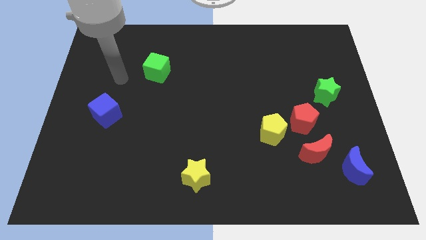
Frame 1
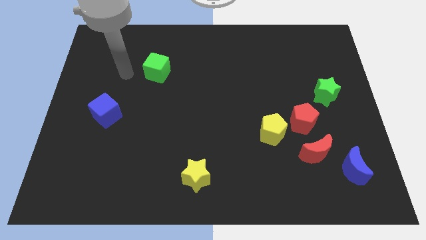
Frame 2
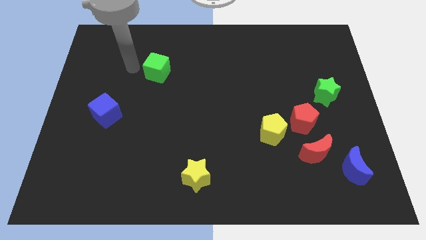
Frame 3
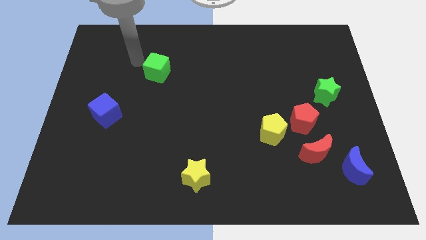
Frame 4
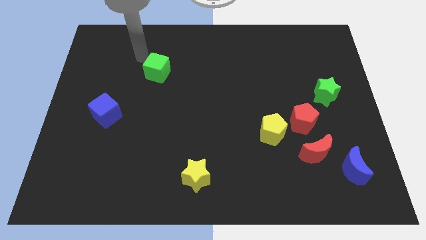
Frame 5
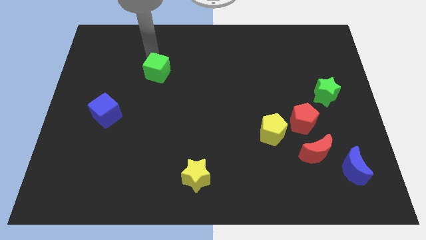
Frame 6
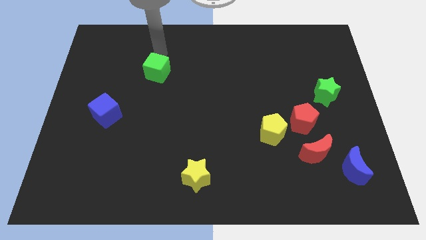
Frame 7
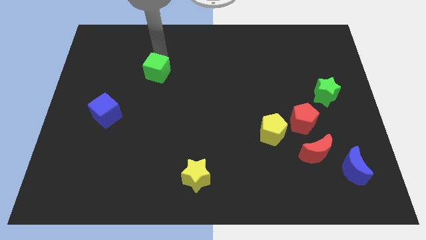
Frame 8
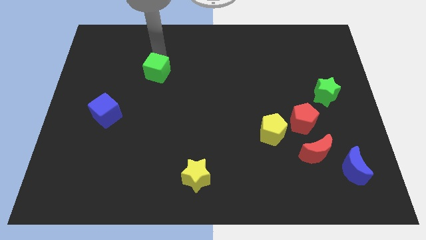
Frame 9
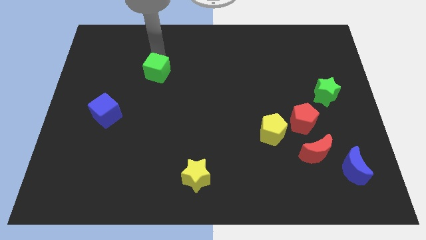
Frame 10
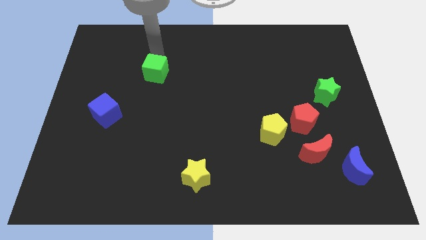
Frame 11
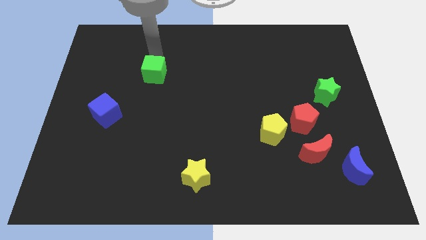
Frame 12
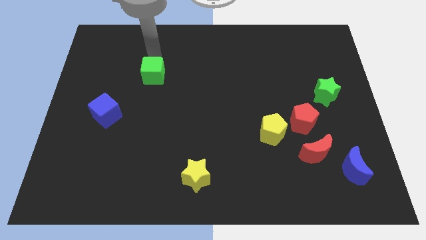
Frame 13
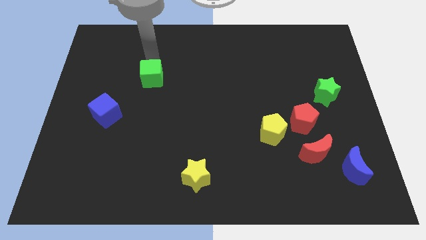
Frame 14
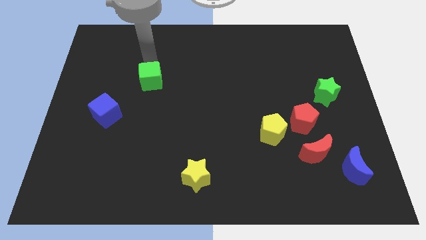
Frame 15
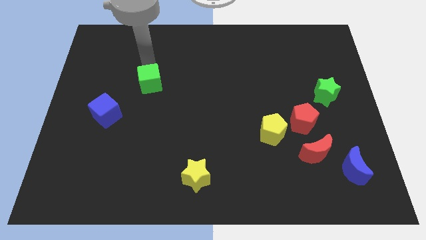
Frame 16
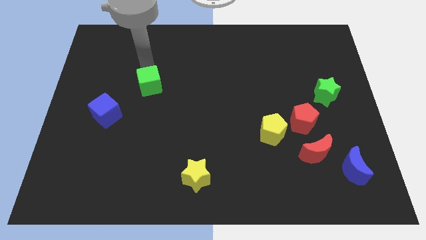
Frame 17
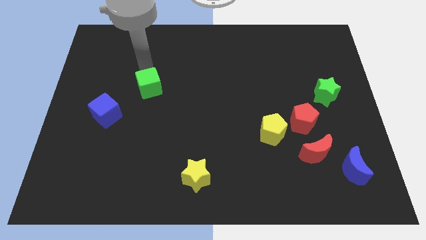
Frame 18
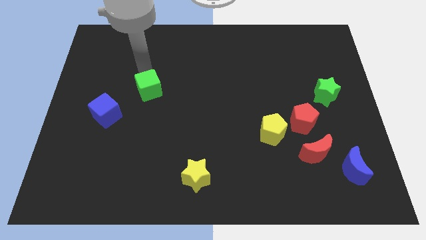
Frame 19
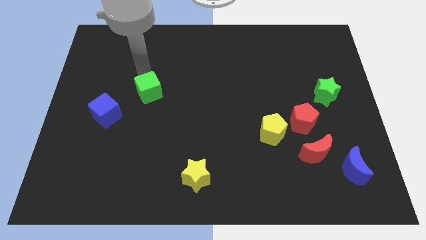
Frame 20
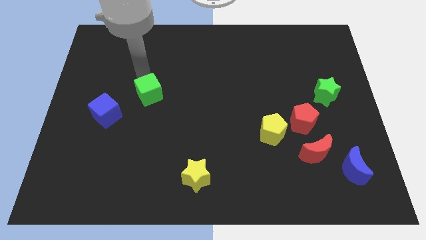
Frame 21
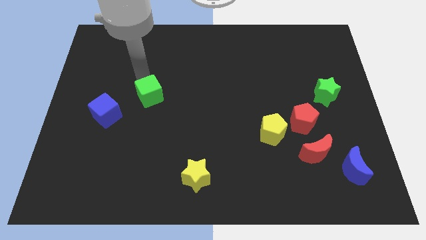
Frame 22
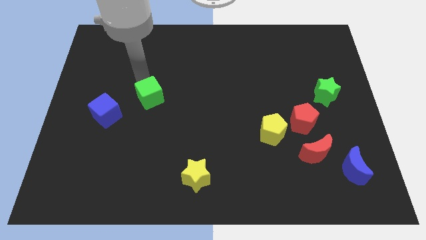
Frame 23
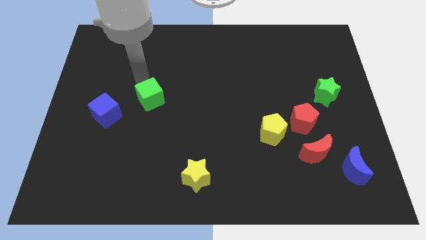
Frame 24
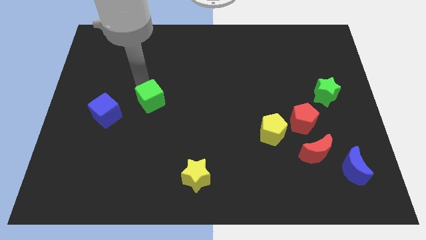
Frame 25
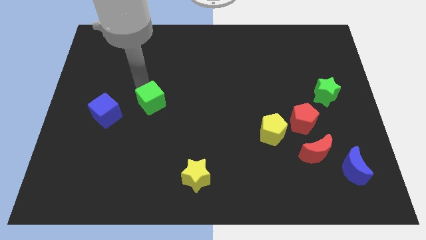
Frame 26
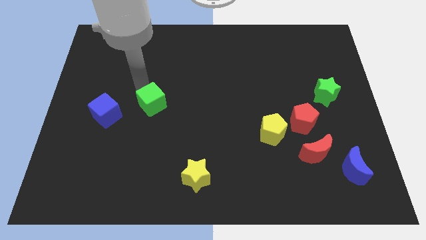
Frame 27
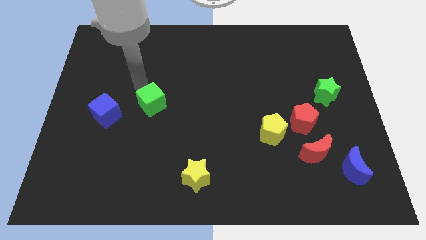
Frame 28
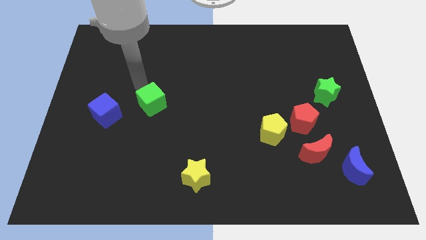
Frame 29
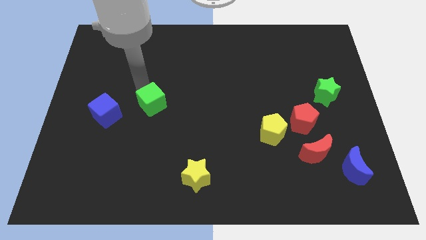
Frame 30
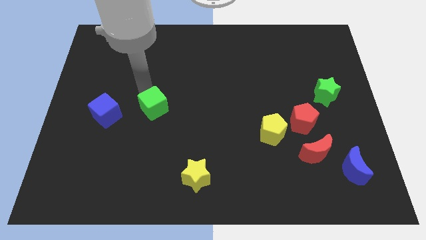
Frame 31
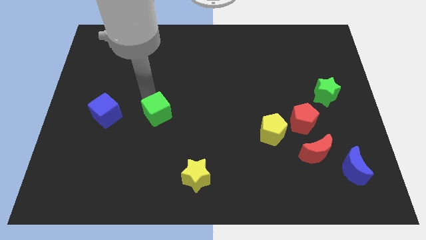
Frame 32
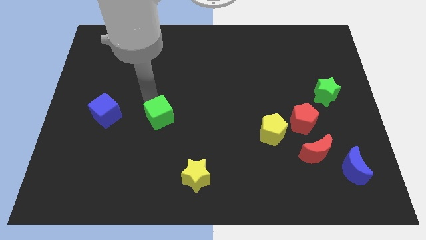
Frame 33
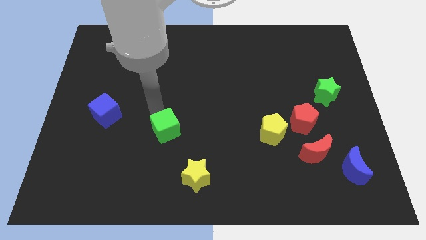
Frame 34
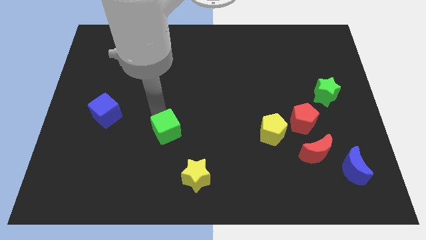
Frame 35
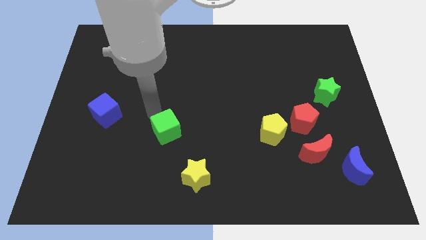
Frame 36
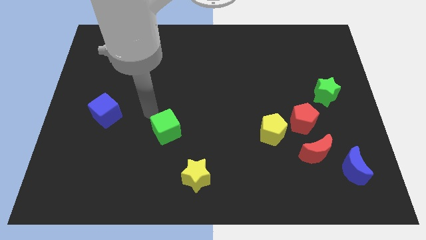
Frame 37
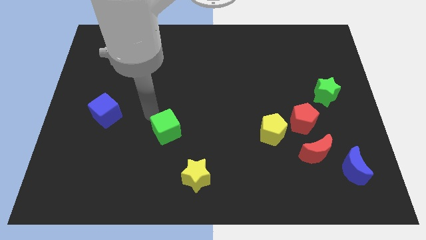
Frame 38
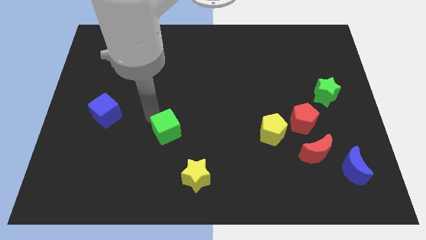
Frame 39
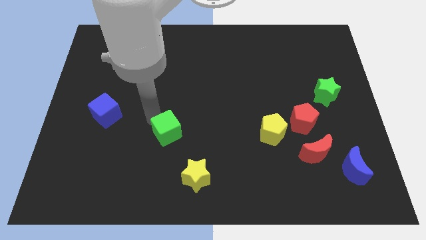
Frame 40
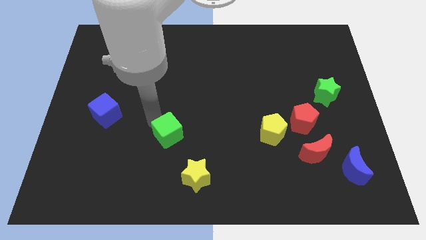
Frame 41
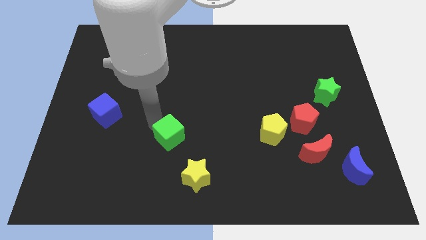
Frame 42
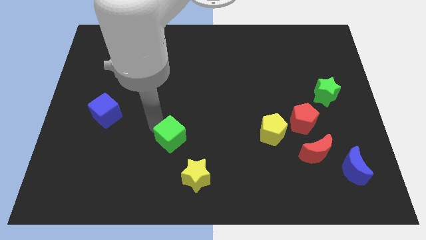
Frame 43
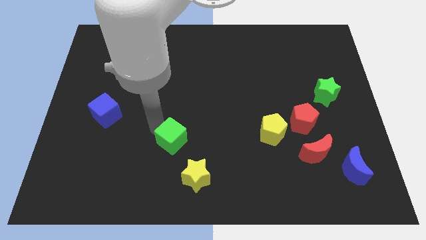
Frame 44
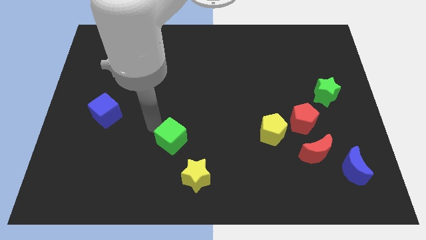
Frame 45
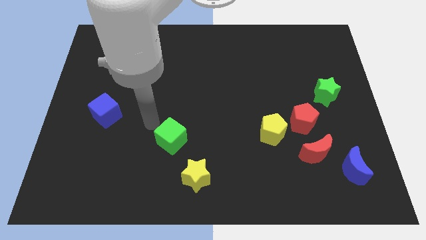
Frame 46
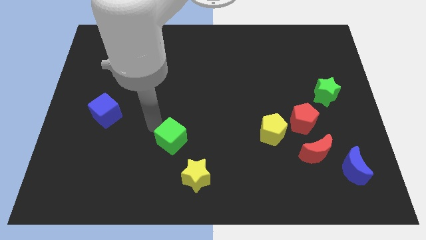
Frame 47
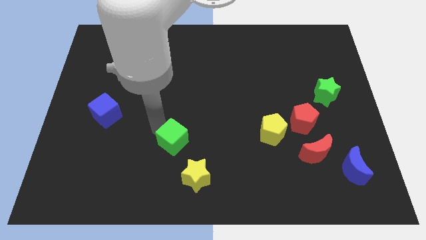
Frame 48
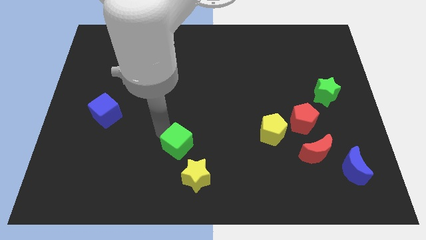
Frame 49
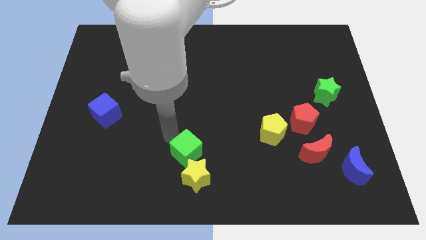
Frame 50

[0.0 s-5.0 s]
slide the green cube close to the yellow star

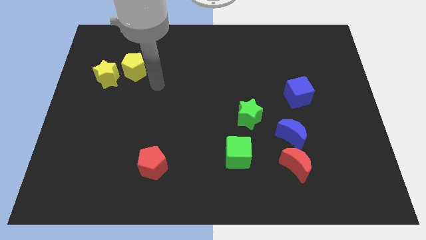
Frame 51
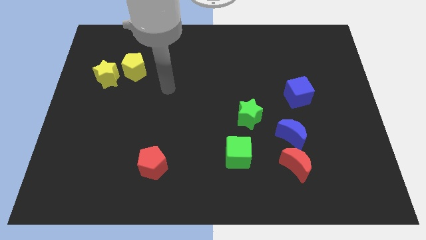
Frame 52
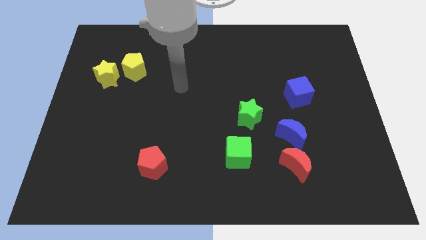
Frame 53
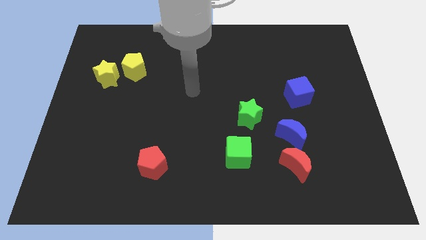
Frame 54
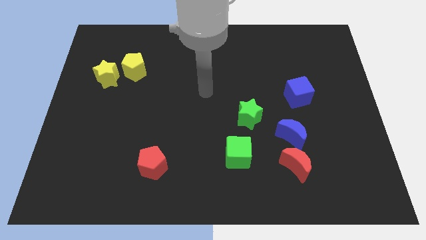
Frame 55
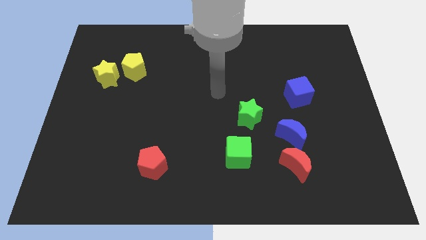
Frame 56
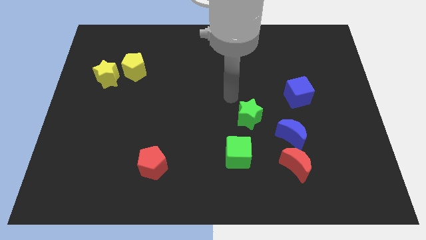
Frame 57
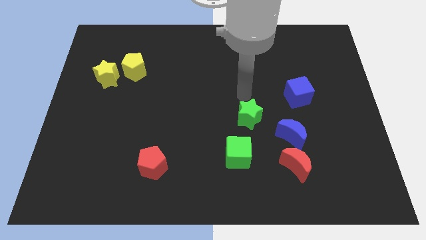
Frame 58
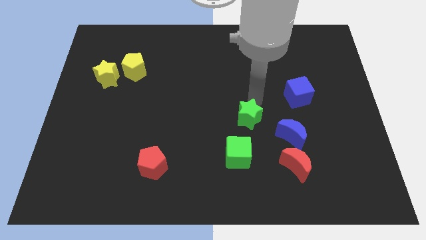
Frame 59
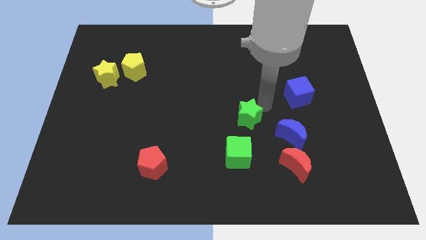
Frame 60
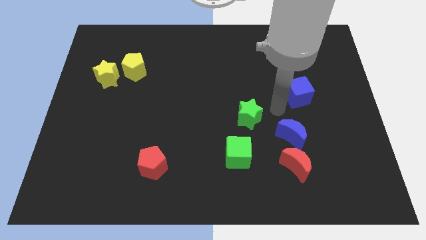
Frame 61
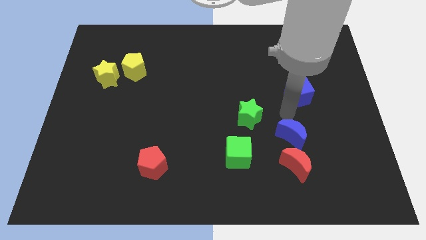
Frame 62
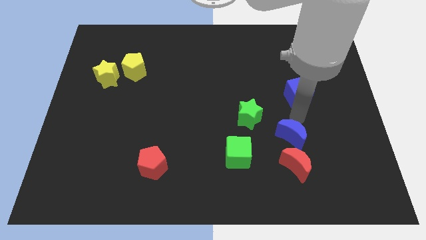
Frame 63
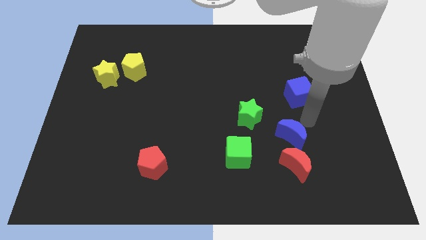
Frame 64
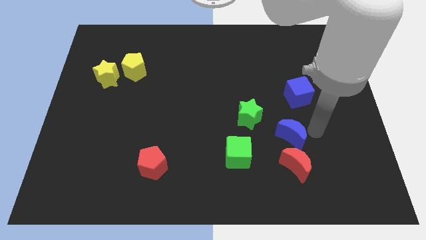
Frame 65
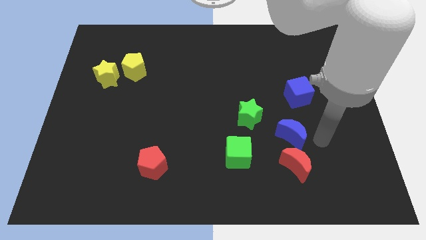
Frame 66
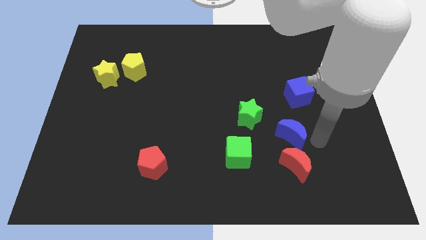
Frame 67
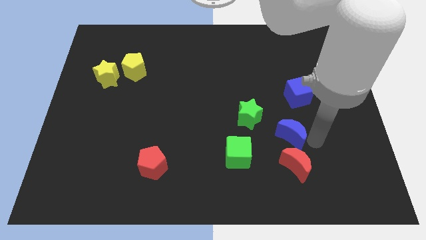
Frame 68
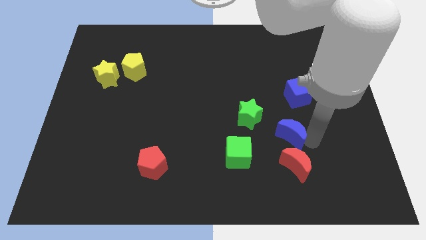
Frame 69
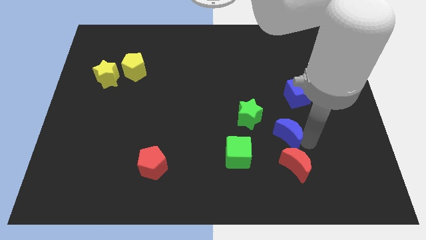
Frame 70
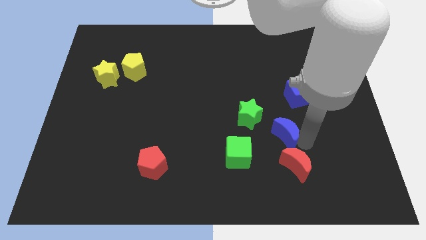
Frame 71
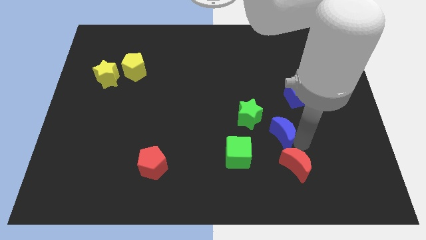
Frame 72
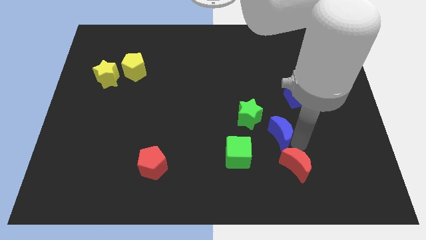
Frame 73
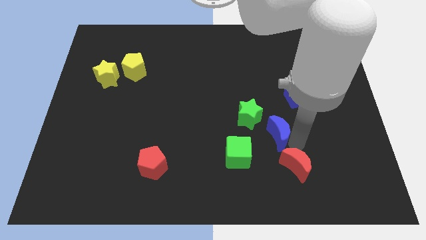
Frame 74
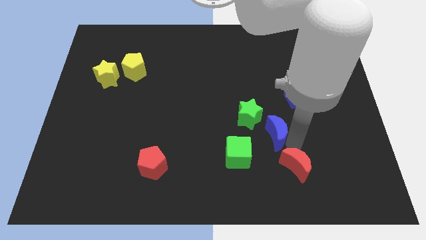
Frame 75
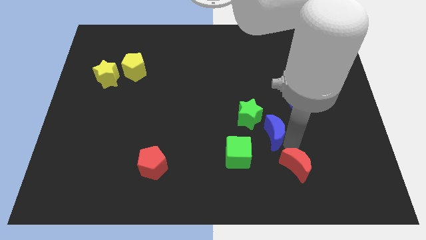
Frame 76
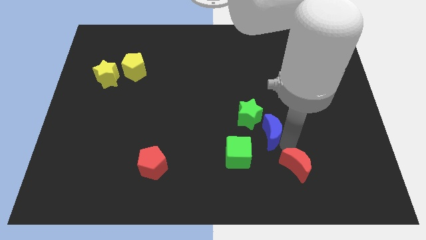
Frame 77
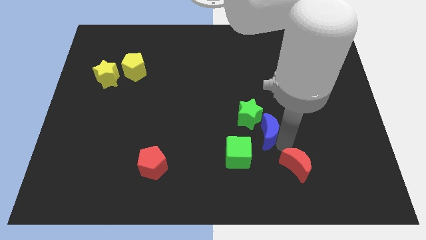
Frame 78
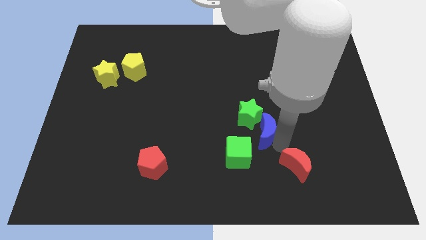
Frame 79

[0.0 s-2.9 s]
move the blue moon next to the green star
